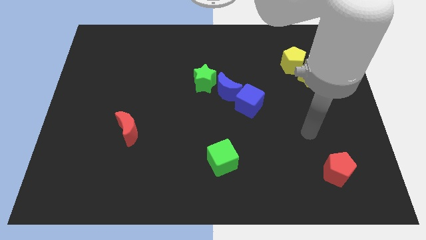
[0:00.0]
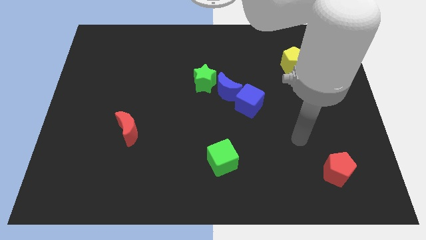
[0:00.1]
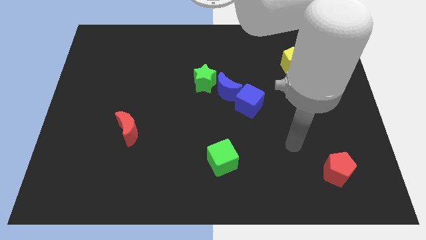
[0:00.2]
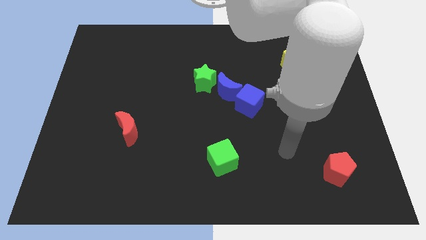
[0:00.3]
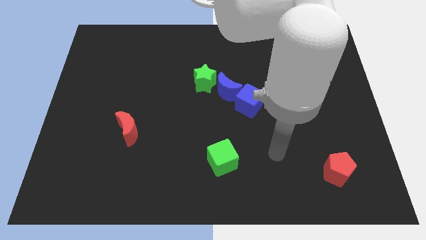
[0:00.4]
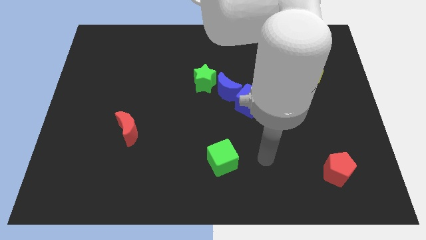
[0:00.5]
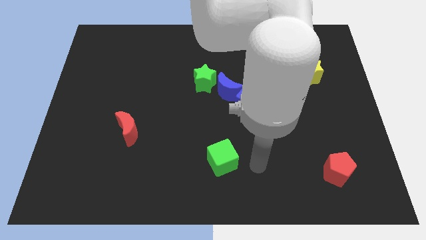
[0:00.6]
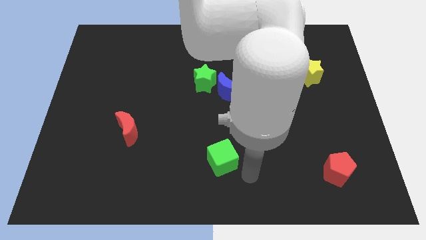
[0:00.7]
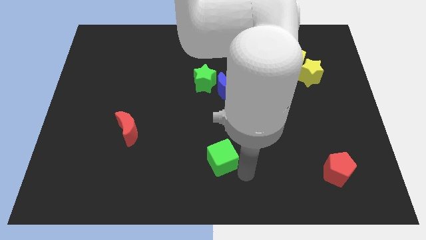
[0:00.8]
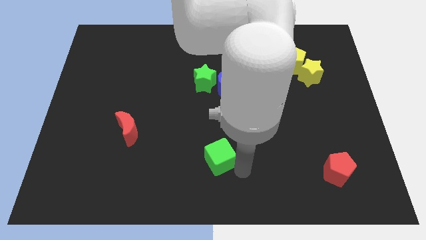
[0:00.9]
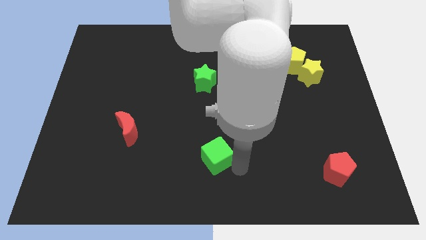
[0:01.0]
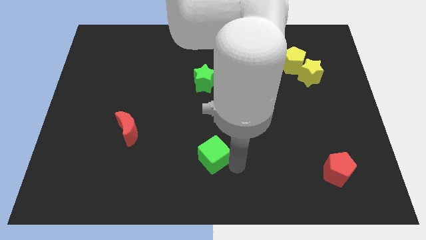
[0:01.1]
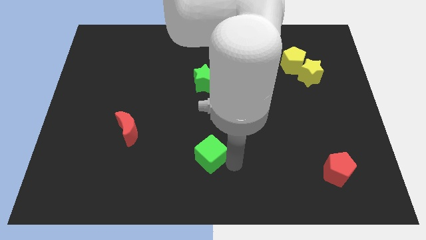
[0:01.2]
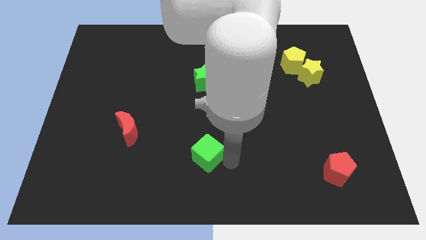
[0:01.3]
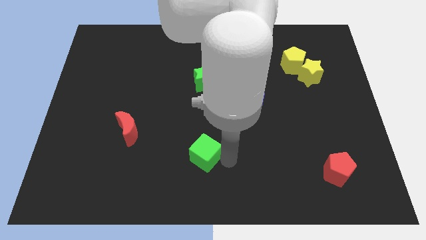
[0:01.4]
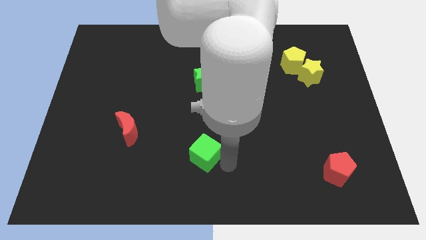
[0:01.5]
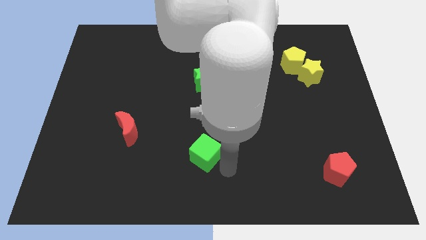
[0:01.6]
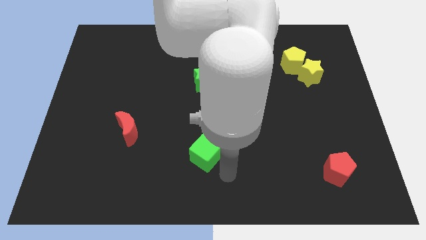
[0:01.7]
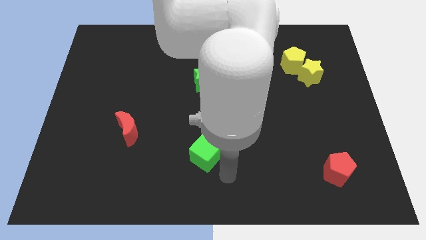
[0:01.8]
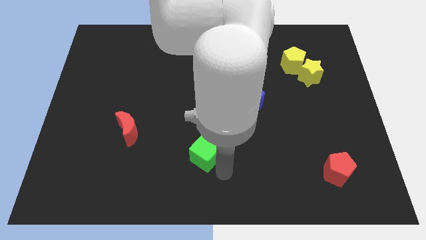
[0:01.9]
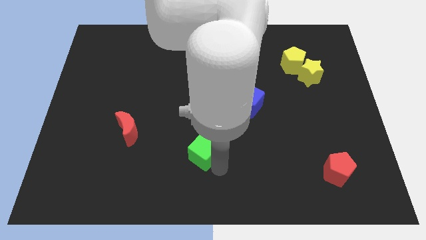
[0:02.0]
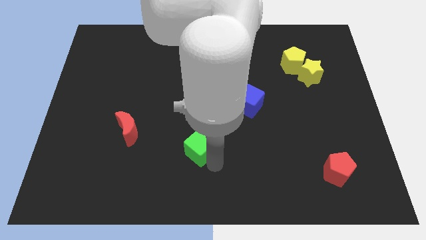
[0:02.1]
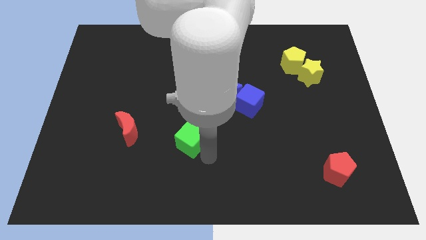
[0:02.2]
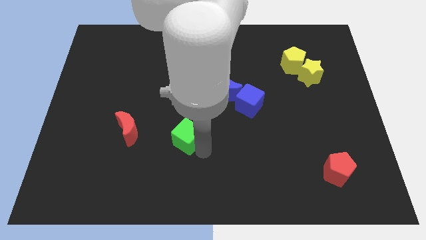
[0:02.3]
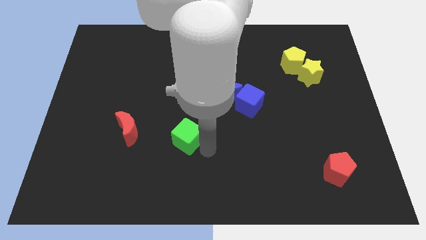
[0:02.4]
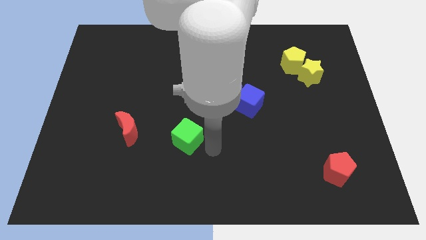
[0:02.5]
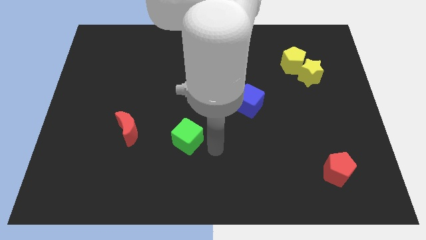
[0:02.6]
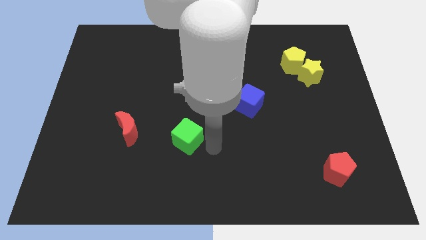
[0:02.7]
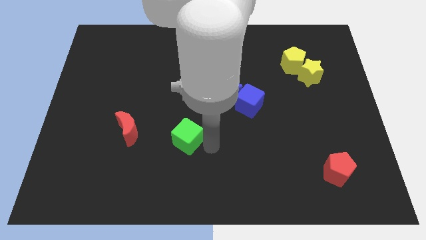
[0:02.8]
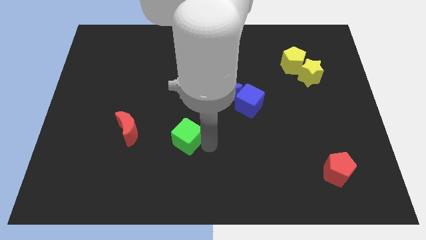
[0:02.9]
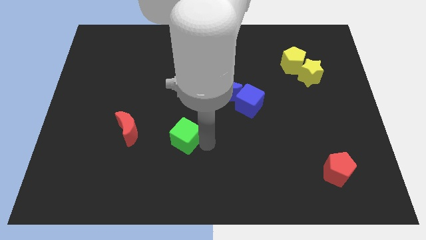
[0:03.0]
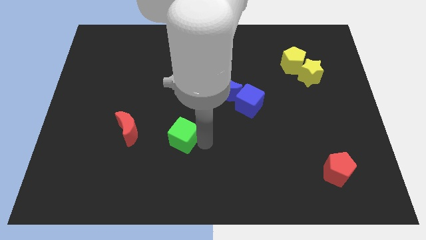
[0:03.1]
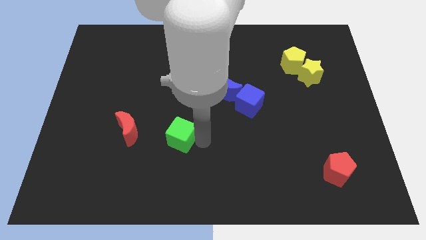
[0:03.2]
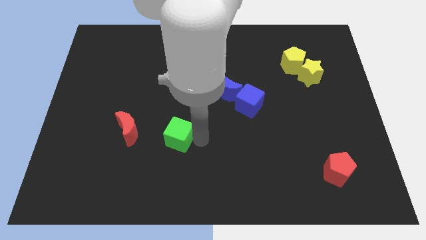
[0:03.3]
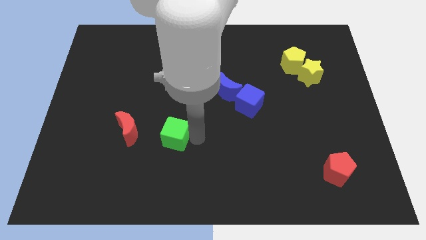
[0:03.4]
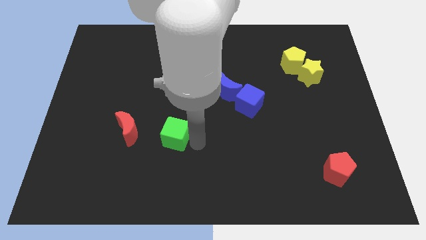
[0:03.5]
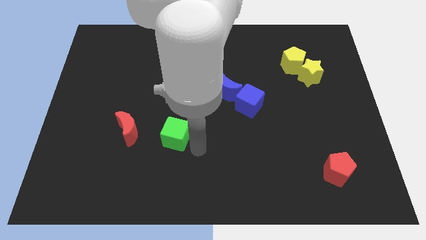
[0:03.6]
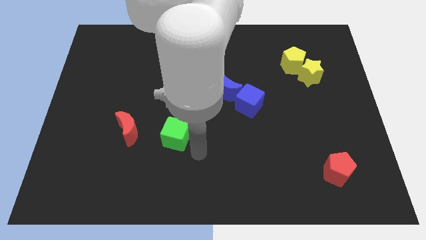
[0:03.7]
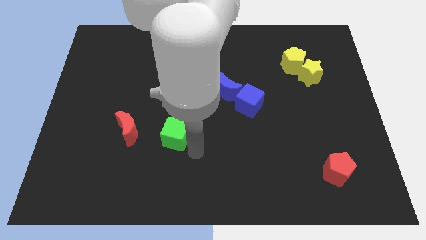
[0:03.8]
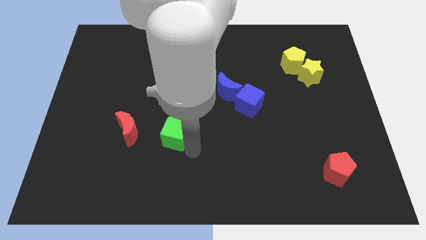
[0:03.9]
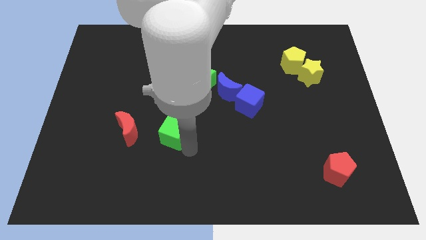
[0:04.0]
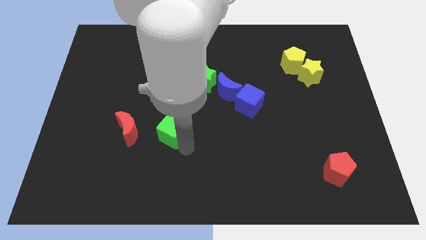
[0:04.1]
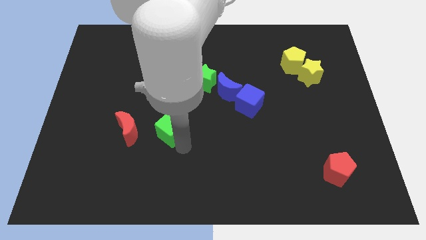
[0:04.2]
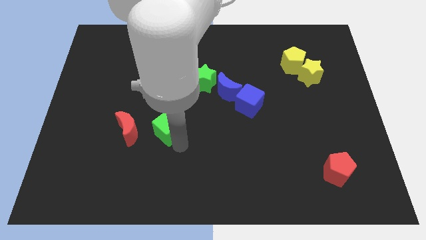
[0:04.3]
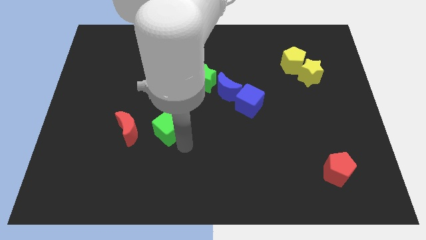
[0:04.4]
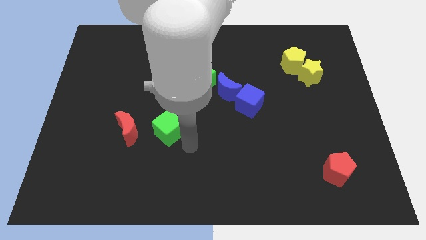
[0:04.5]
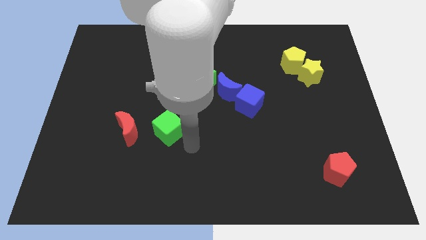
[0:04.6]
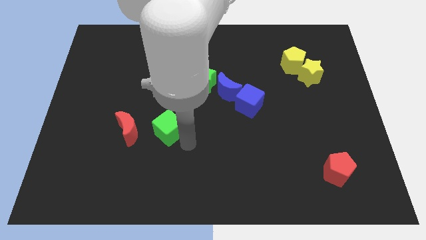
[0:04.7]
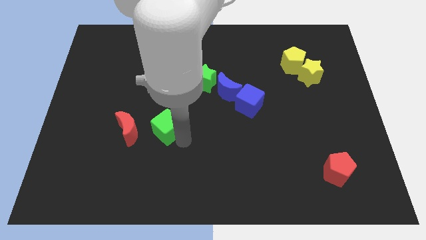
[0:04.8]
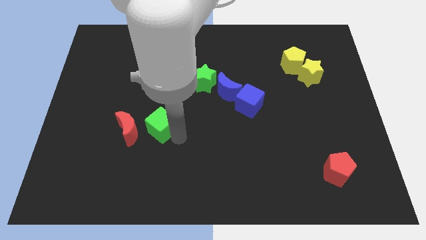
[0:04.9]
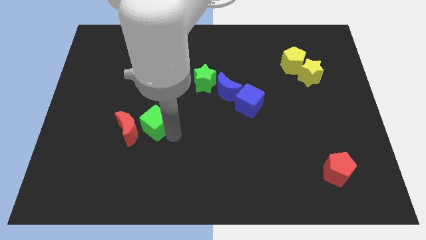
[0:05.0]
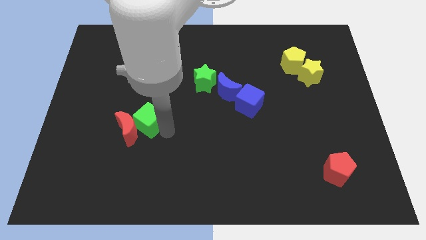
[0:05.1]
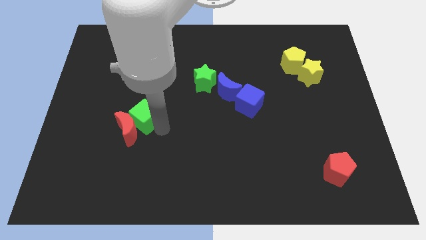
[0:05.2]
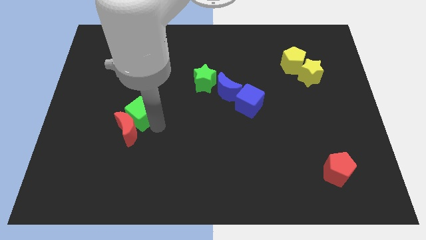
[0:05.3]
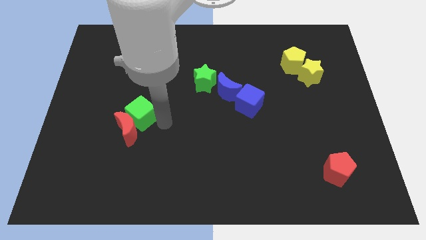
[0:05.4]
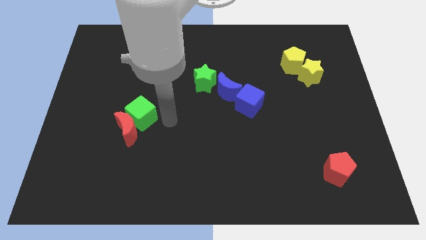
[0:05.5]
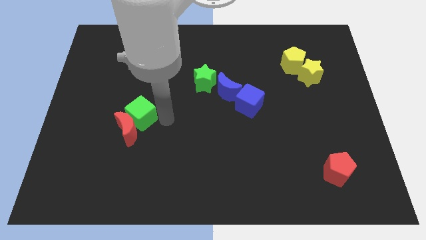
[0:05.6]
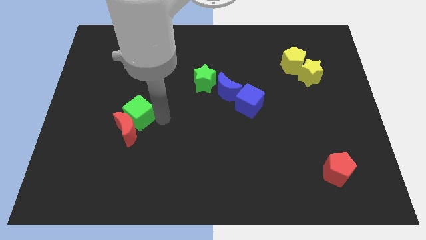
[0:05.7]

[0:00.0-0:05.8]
move the green cube diagonally up and to the left of the red moon

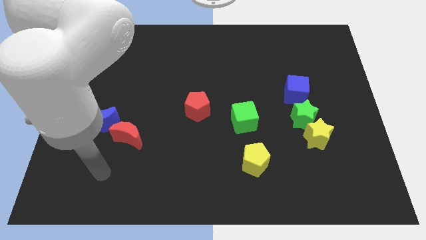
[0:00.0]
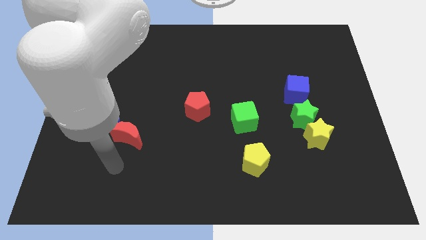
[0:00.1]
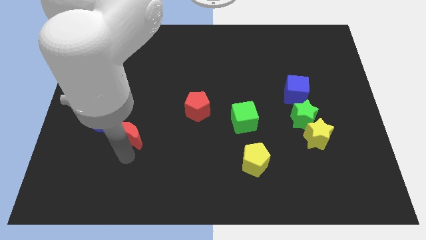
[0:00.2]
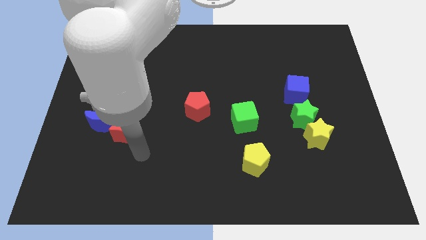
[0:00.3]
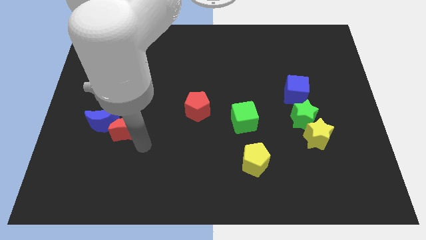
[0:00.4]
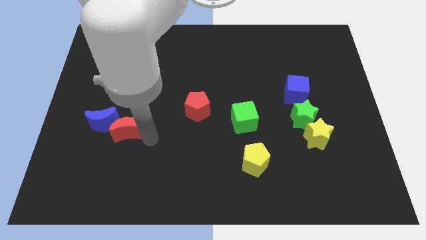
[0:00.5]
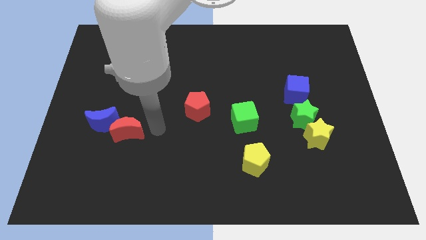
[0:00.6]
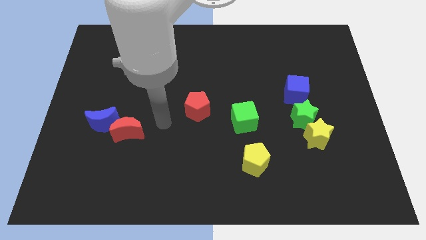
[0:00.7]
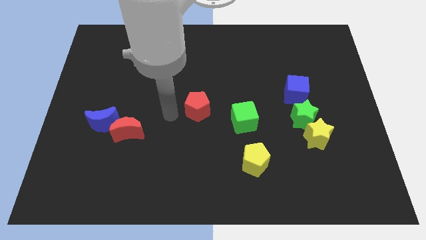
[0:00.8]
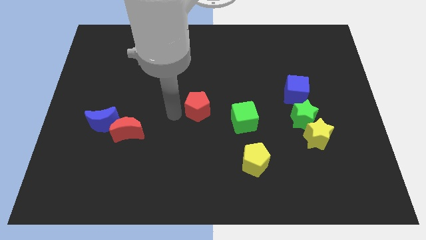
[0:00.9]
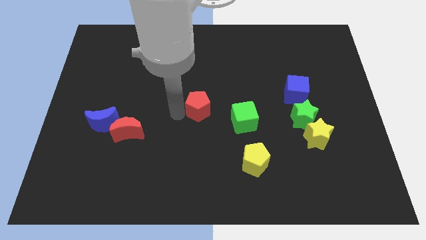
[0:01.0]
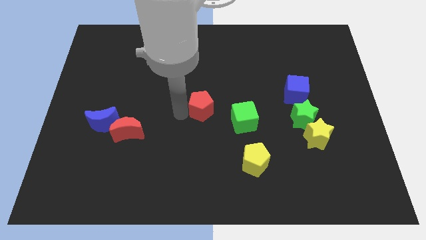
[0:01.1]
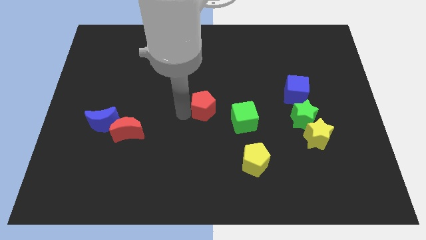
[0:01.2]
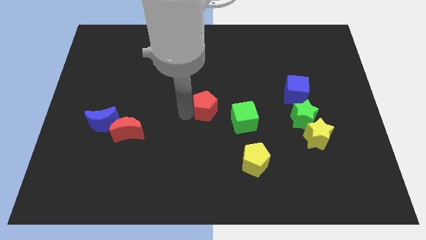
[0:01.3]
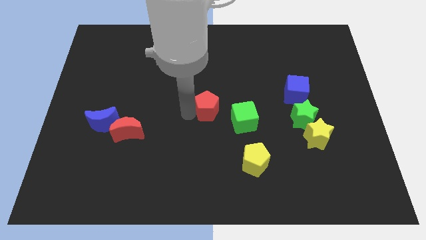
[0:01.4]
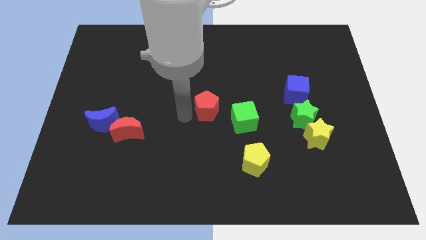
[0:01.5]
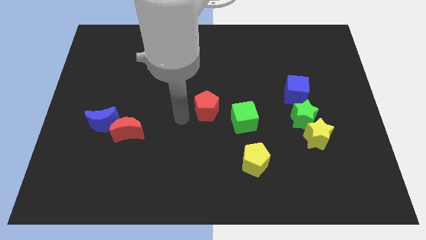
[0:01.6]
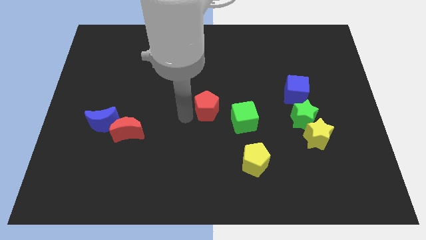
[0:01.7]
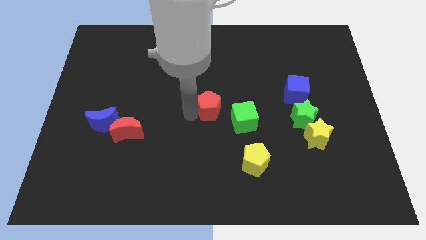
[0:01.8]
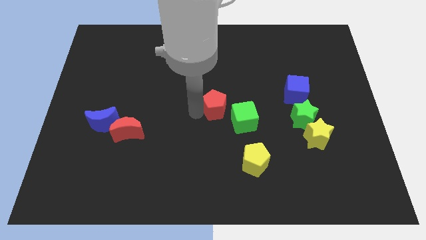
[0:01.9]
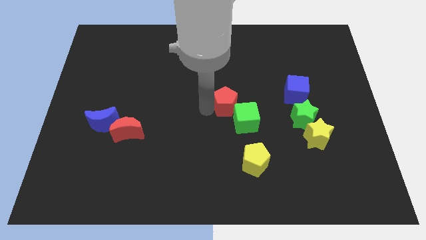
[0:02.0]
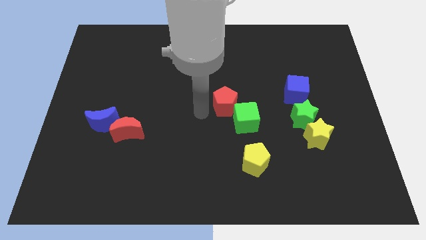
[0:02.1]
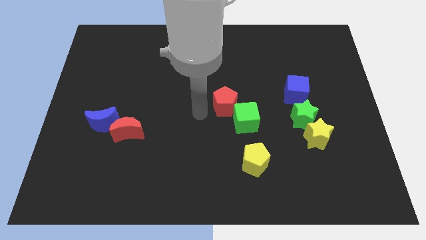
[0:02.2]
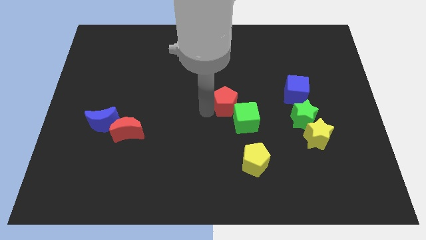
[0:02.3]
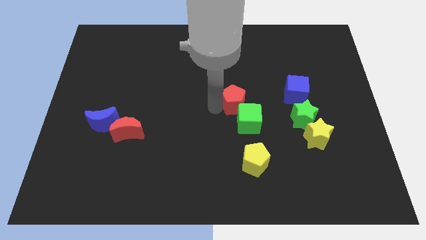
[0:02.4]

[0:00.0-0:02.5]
move the red pentagon to the left of the blue cube
